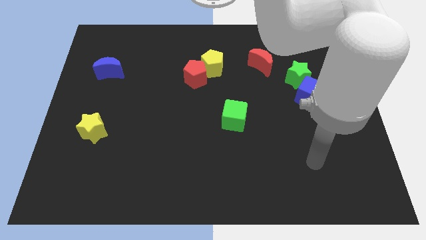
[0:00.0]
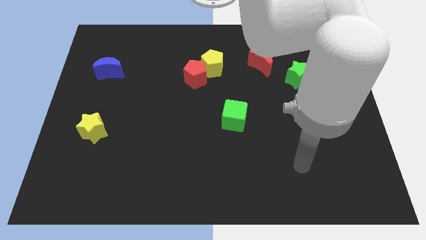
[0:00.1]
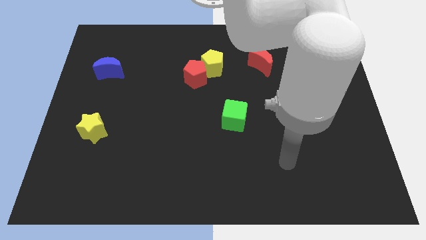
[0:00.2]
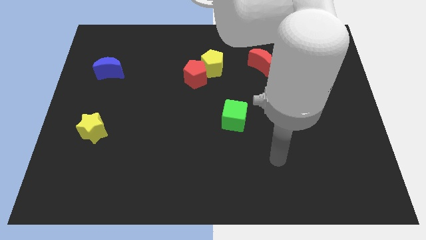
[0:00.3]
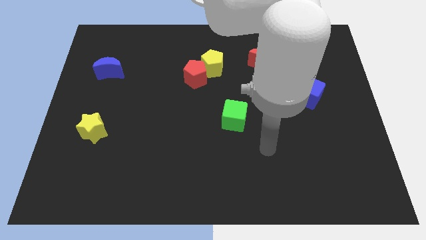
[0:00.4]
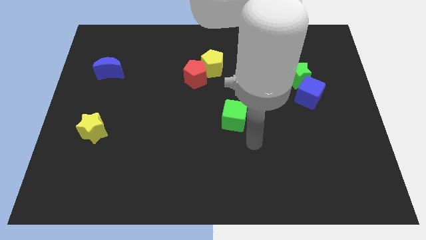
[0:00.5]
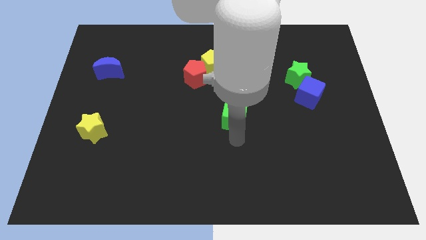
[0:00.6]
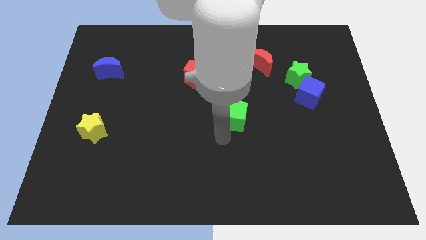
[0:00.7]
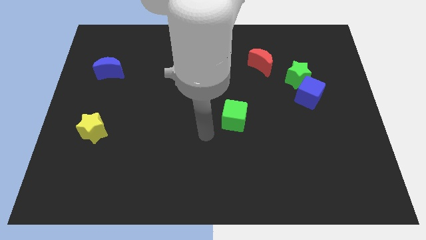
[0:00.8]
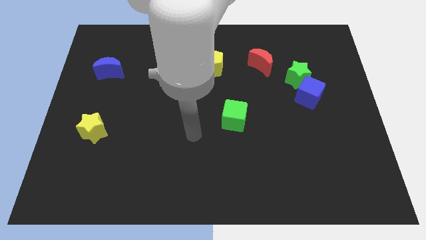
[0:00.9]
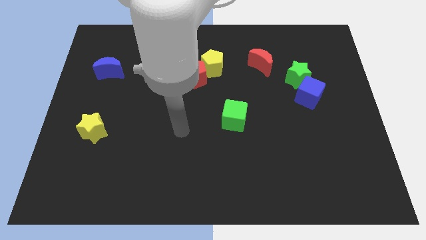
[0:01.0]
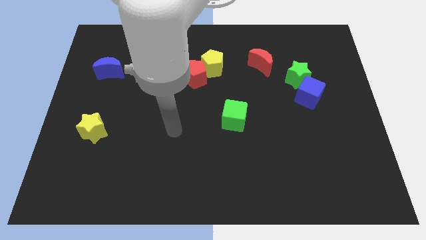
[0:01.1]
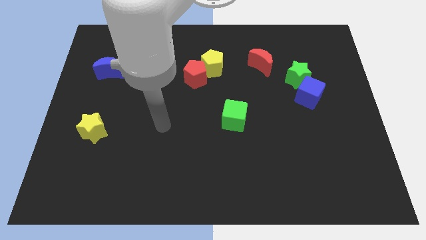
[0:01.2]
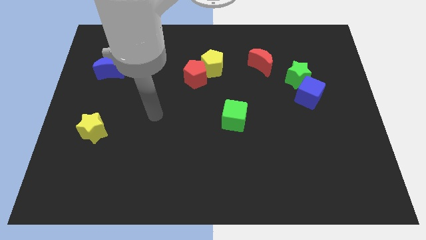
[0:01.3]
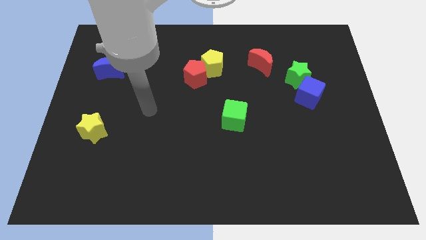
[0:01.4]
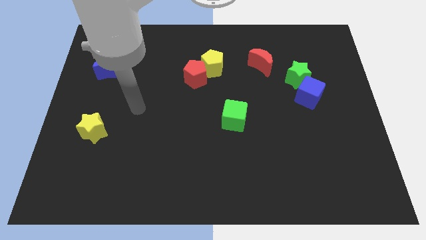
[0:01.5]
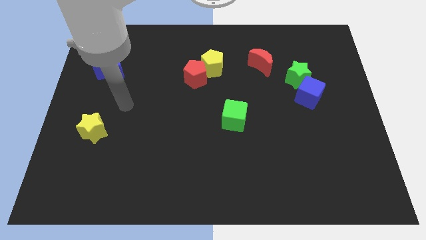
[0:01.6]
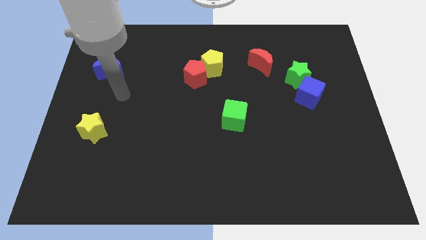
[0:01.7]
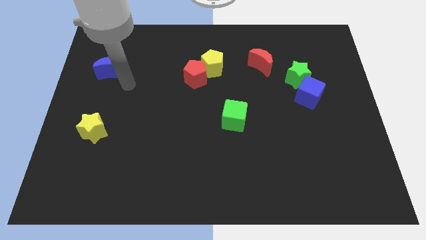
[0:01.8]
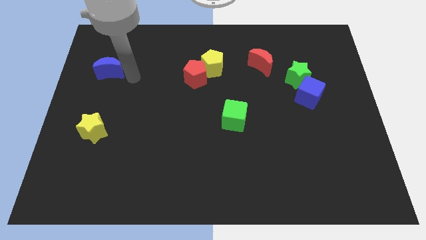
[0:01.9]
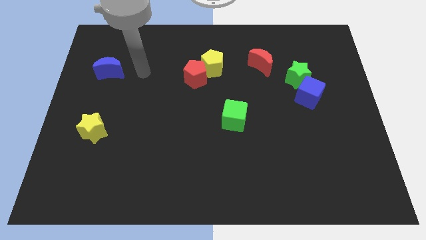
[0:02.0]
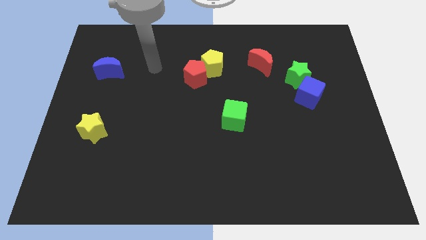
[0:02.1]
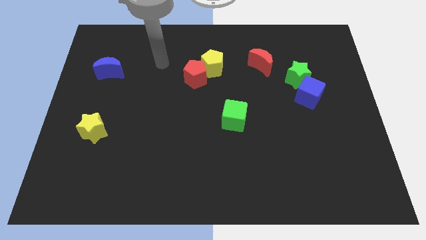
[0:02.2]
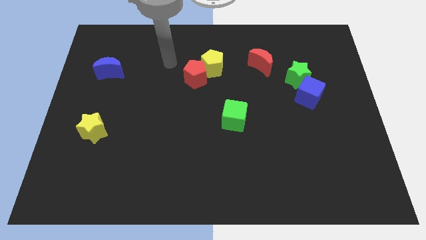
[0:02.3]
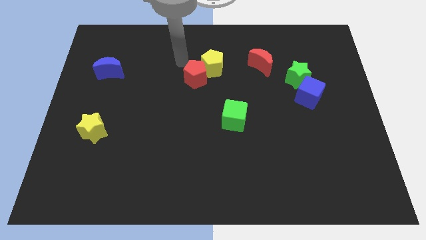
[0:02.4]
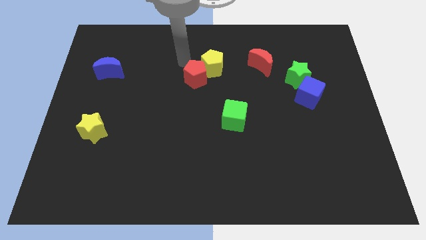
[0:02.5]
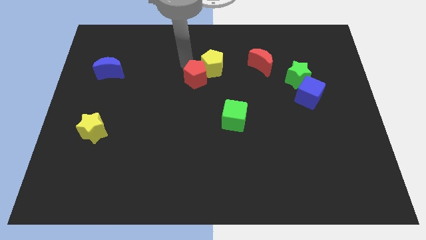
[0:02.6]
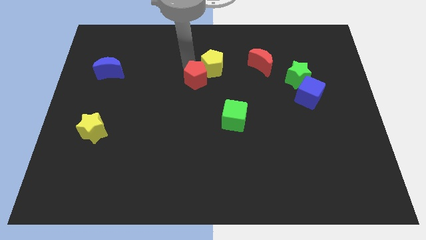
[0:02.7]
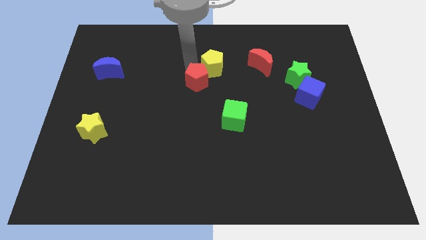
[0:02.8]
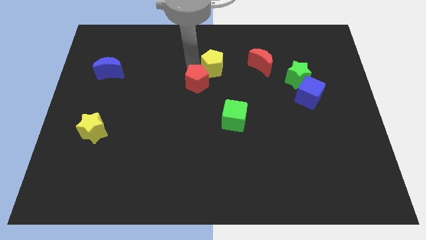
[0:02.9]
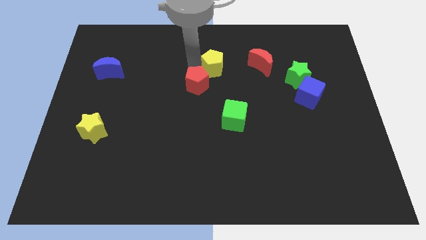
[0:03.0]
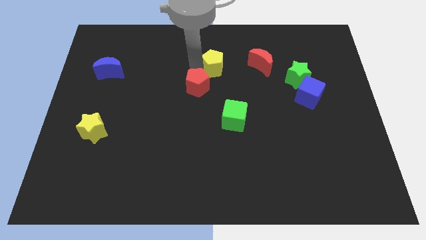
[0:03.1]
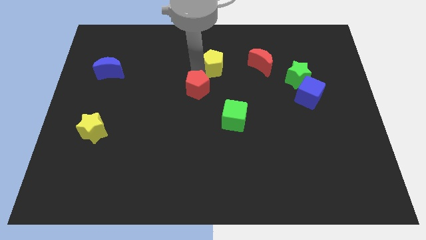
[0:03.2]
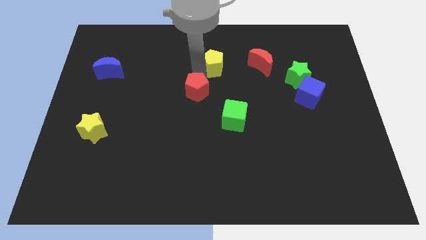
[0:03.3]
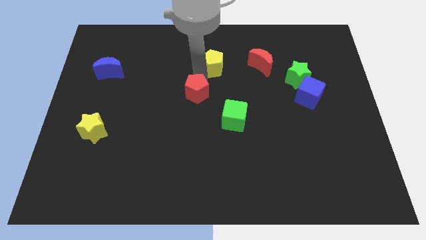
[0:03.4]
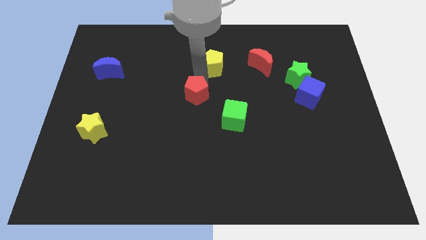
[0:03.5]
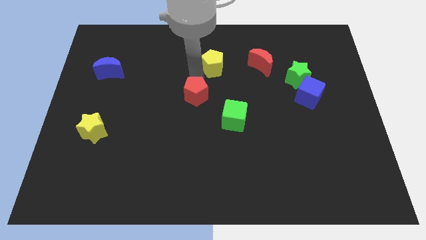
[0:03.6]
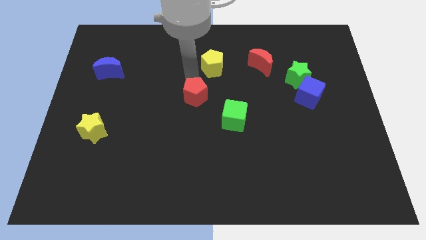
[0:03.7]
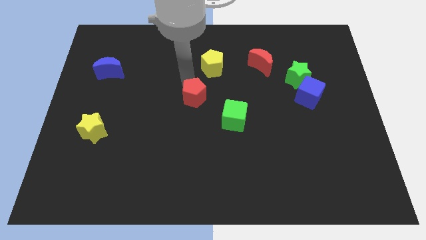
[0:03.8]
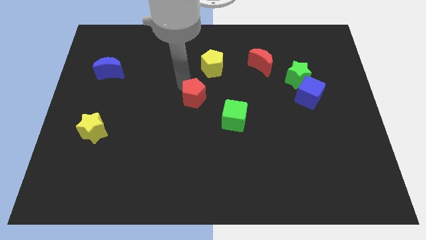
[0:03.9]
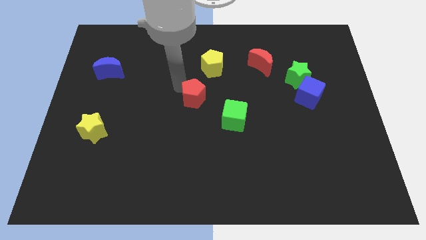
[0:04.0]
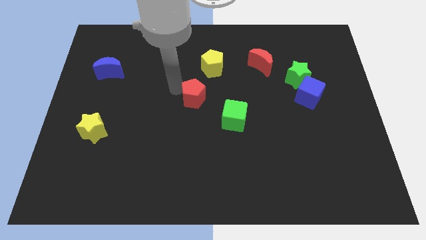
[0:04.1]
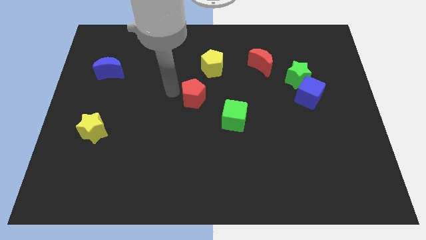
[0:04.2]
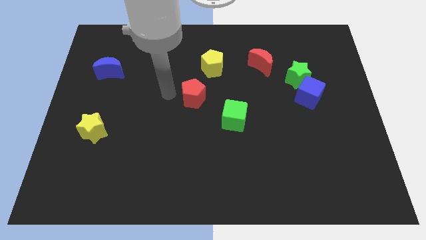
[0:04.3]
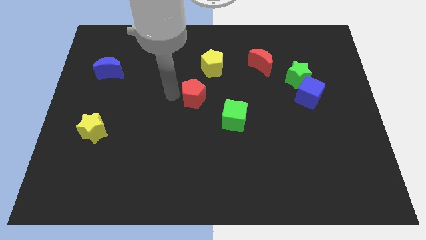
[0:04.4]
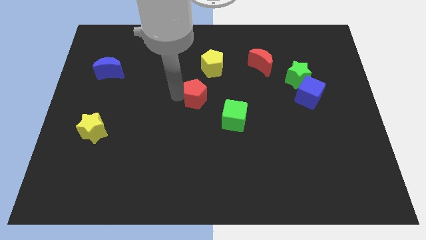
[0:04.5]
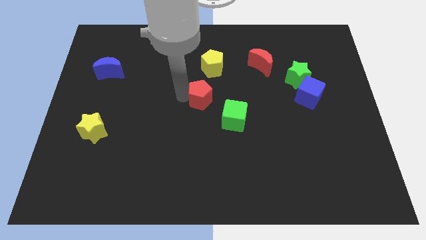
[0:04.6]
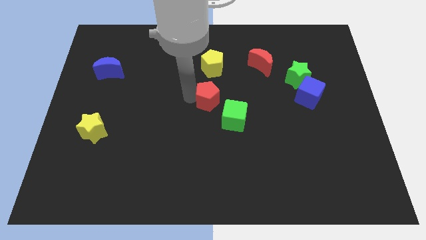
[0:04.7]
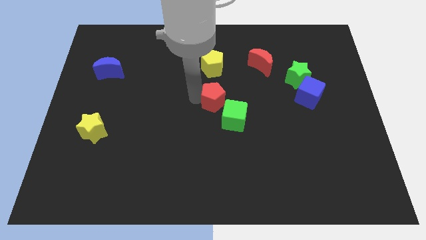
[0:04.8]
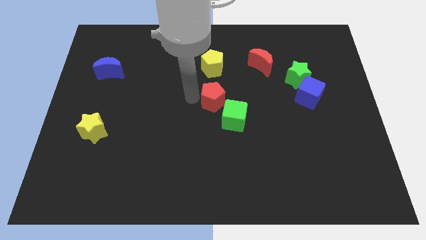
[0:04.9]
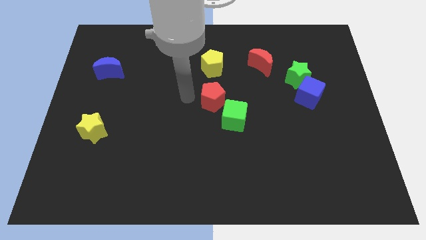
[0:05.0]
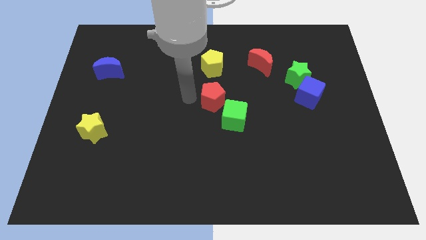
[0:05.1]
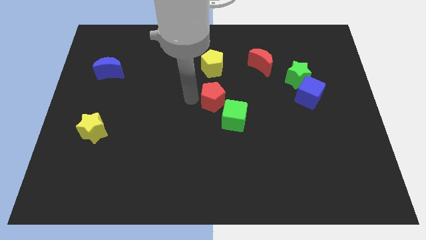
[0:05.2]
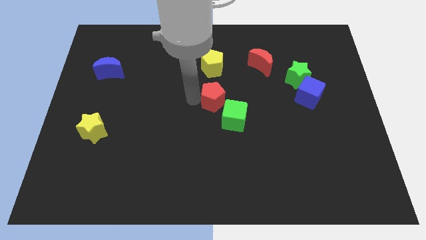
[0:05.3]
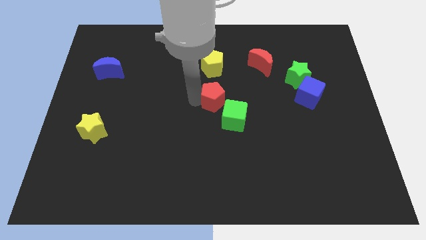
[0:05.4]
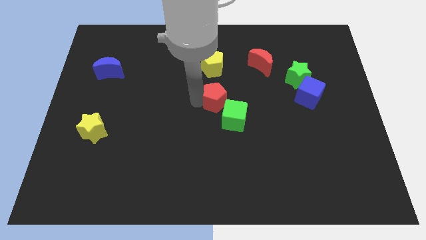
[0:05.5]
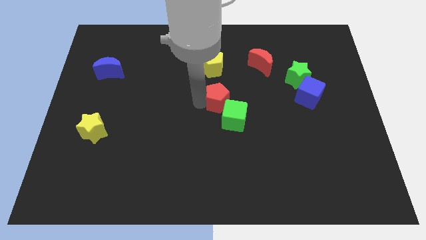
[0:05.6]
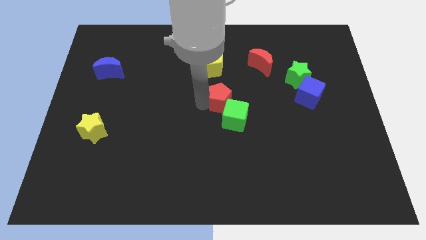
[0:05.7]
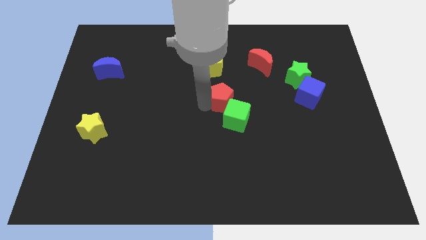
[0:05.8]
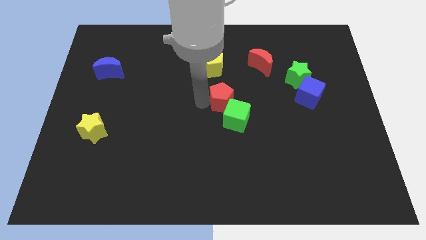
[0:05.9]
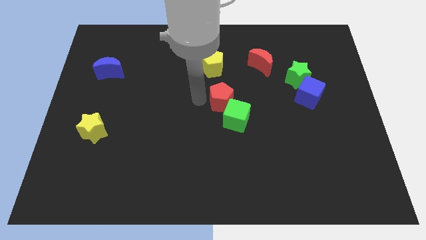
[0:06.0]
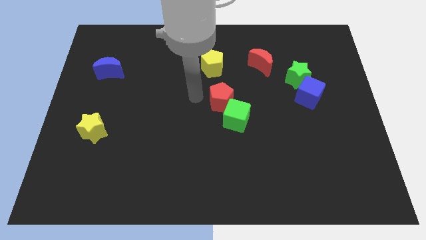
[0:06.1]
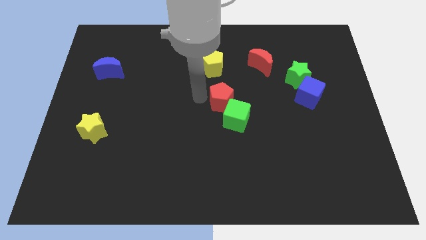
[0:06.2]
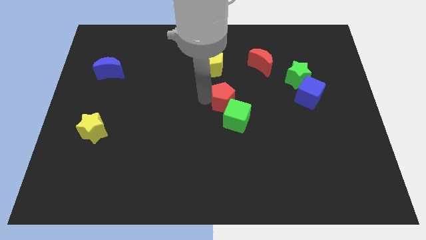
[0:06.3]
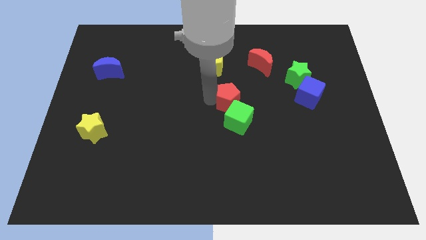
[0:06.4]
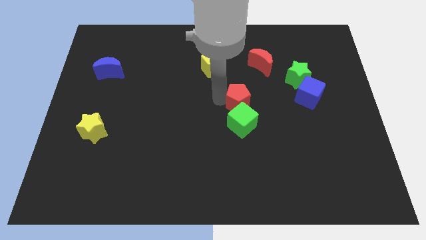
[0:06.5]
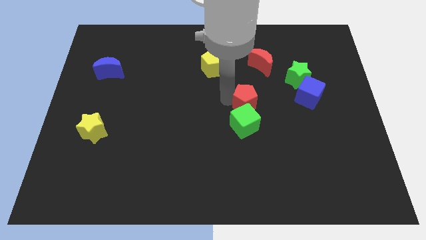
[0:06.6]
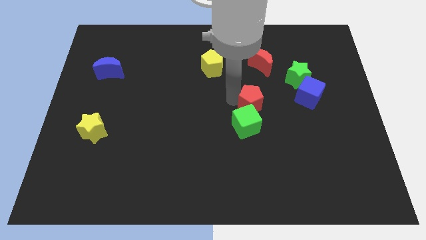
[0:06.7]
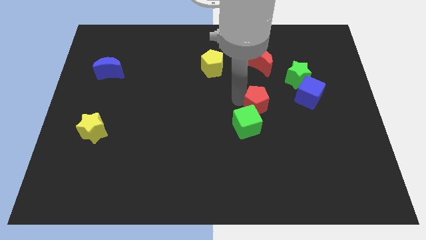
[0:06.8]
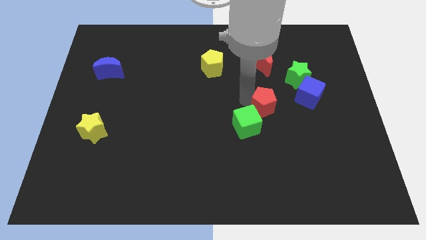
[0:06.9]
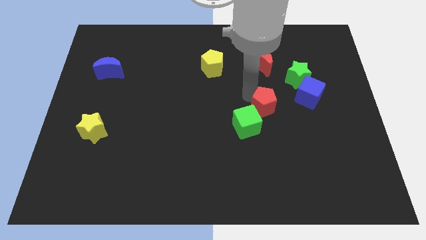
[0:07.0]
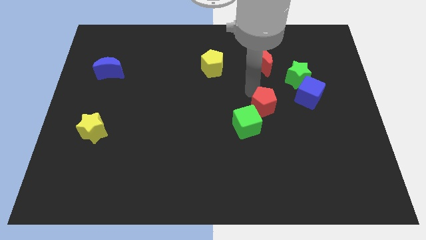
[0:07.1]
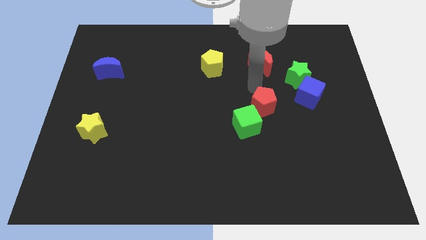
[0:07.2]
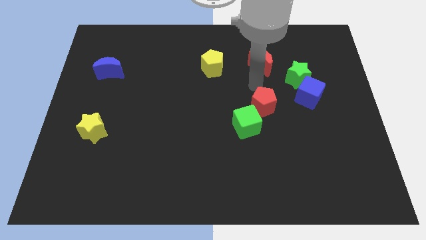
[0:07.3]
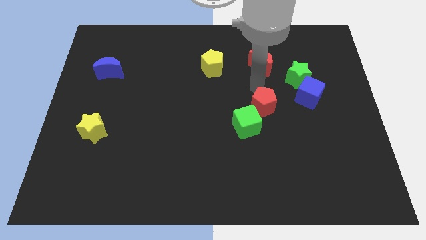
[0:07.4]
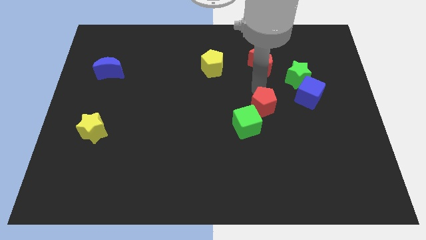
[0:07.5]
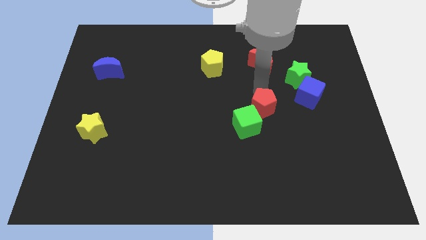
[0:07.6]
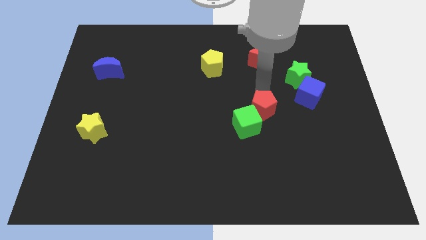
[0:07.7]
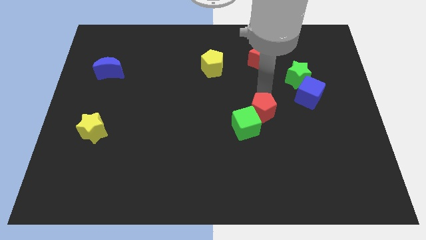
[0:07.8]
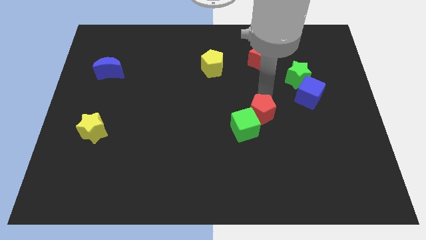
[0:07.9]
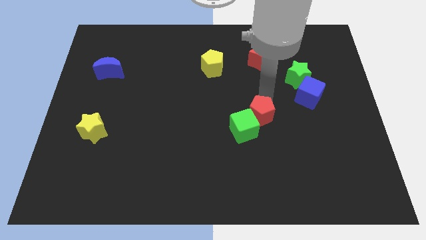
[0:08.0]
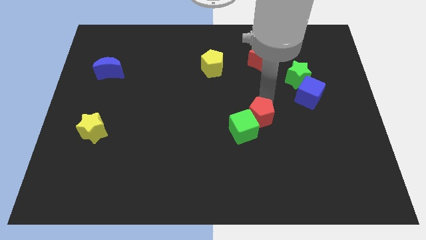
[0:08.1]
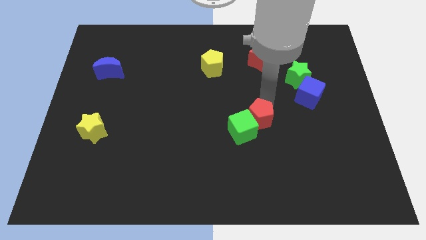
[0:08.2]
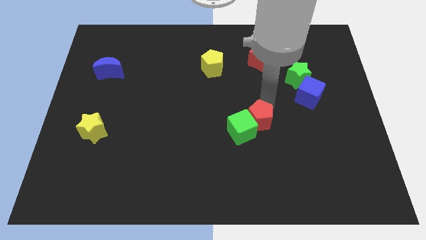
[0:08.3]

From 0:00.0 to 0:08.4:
slide the red pentagon diagonally downwards and to the right
